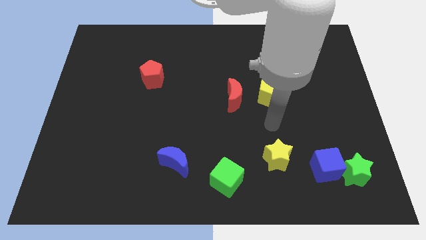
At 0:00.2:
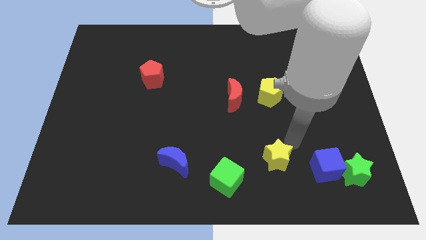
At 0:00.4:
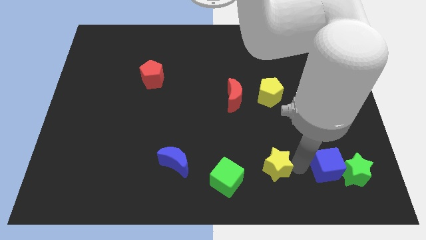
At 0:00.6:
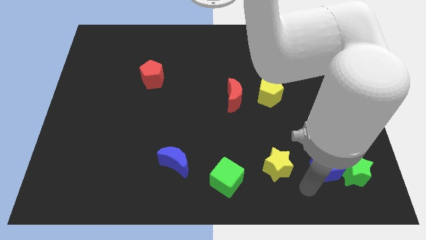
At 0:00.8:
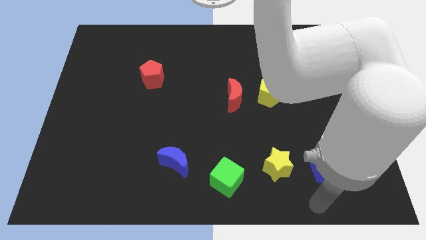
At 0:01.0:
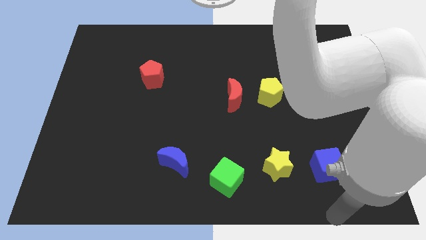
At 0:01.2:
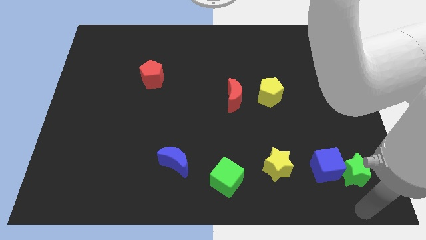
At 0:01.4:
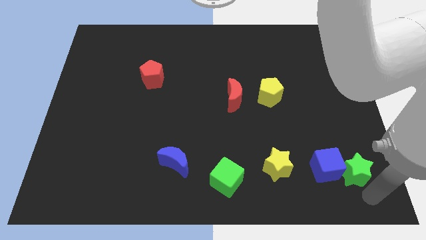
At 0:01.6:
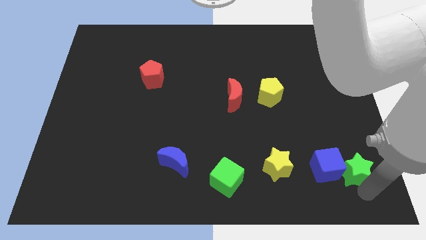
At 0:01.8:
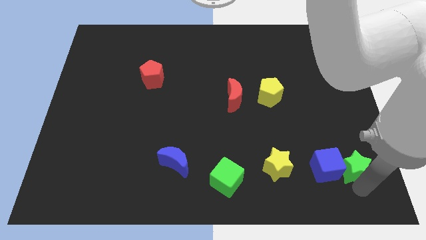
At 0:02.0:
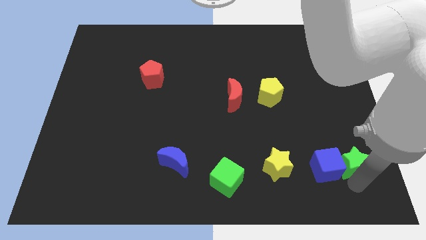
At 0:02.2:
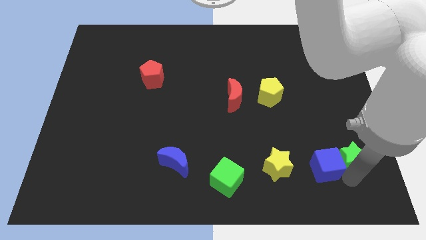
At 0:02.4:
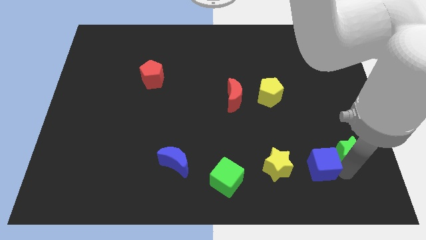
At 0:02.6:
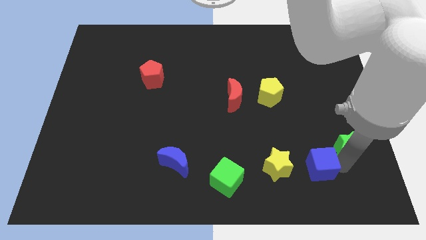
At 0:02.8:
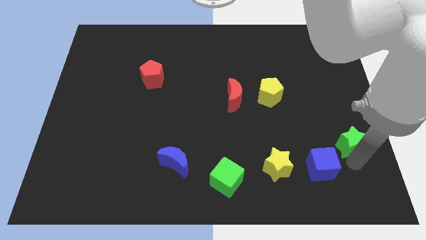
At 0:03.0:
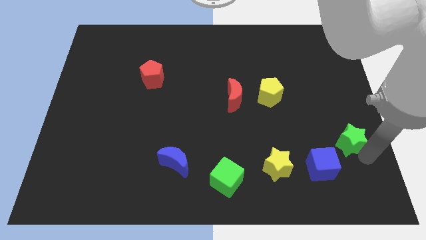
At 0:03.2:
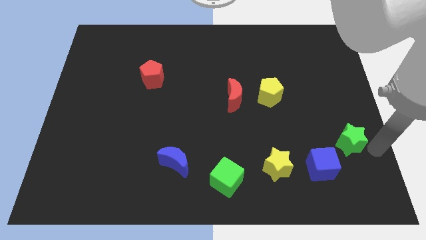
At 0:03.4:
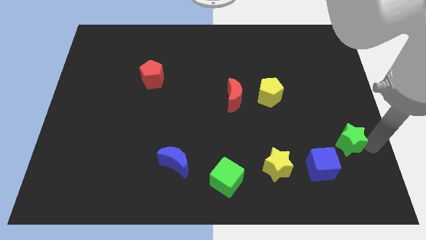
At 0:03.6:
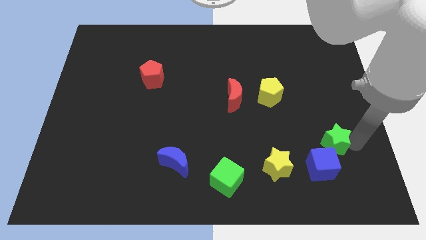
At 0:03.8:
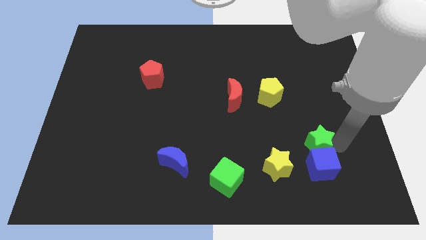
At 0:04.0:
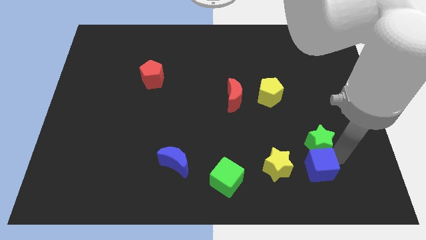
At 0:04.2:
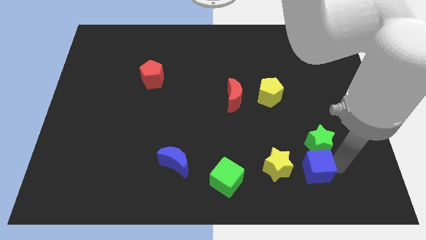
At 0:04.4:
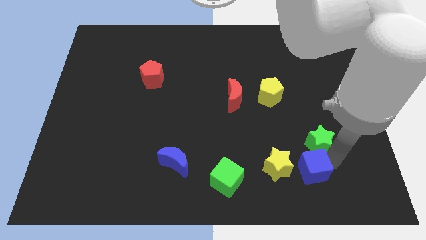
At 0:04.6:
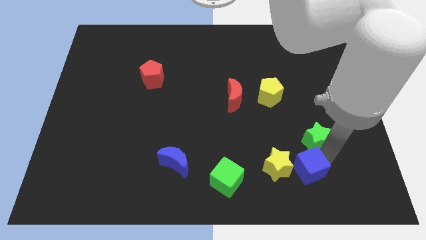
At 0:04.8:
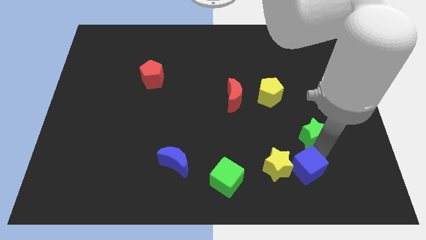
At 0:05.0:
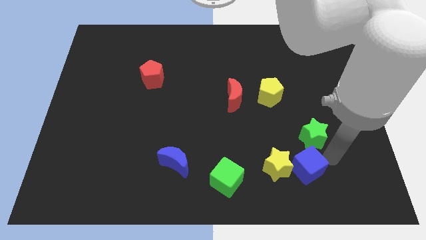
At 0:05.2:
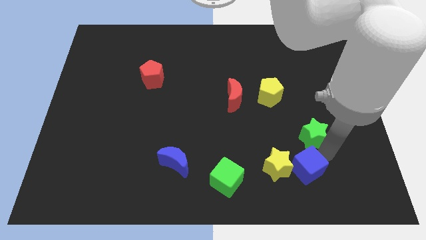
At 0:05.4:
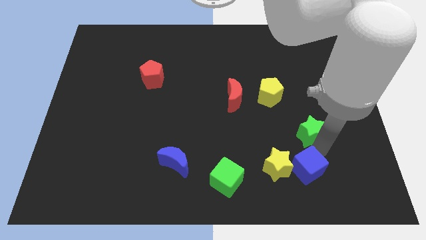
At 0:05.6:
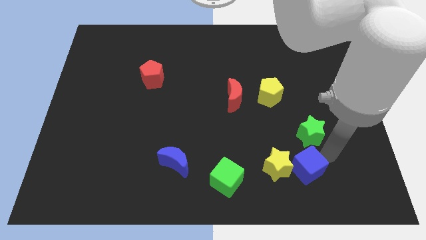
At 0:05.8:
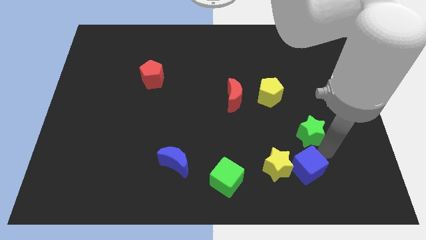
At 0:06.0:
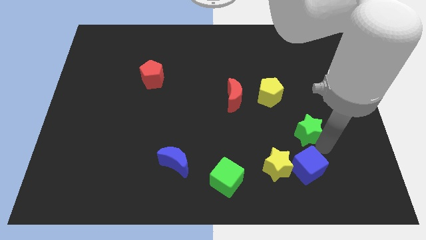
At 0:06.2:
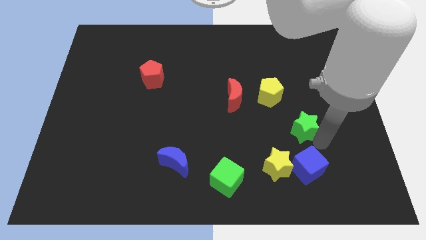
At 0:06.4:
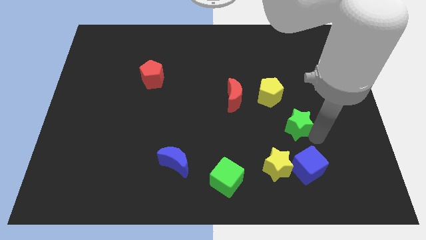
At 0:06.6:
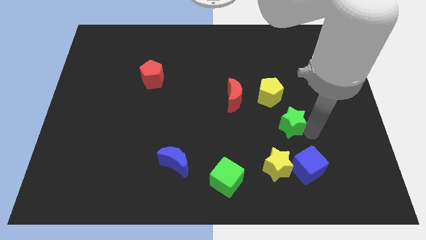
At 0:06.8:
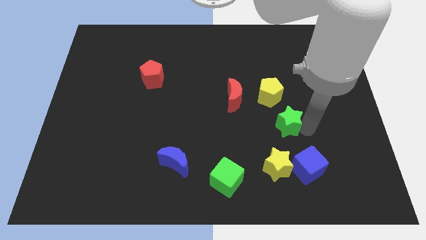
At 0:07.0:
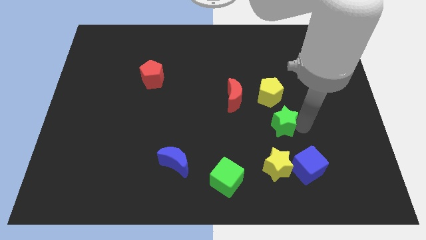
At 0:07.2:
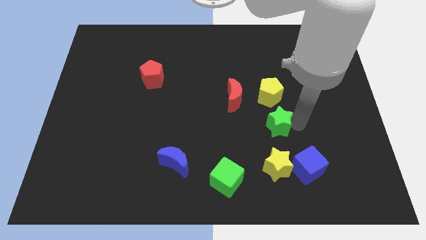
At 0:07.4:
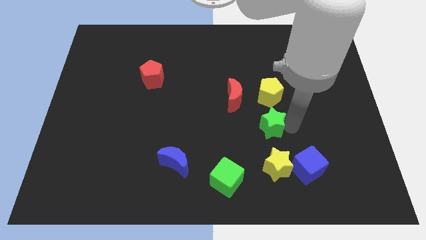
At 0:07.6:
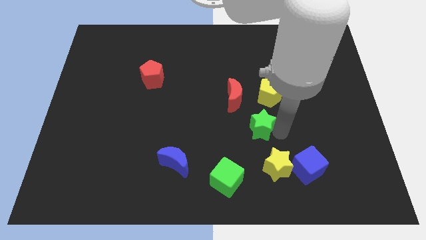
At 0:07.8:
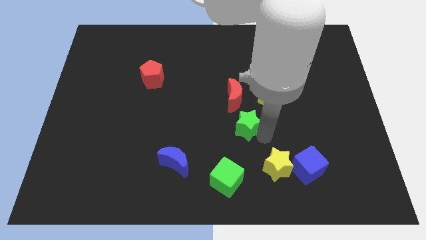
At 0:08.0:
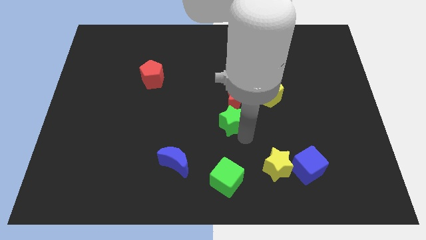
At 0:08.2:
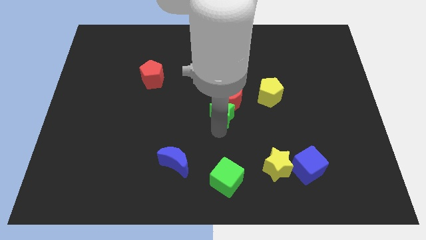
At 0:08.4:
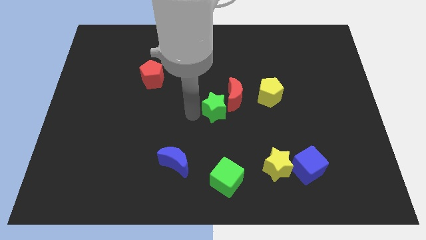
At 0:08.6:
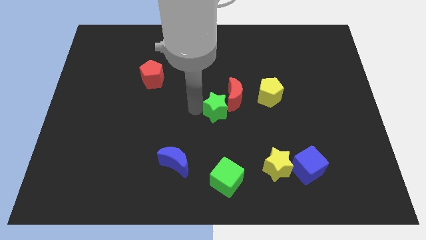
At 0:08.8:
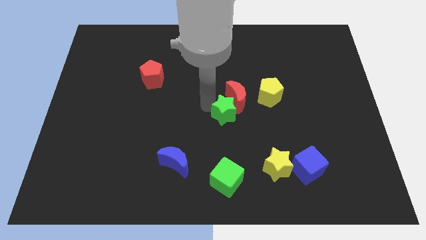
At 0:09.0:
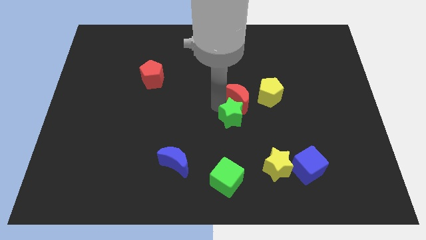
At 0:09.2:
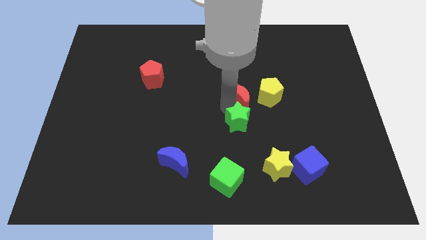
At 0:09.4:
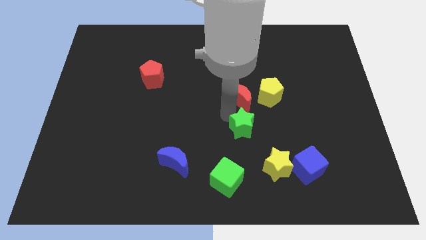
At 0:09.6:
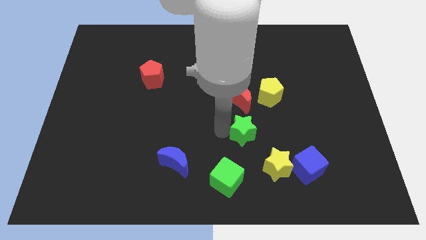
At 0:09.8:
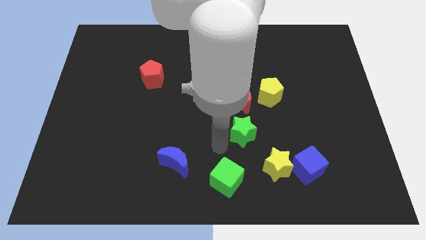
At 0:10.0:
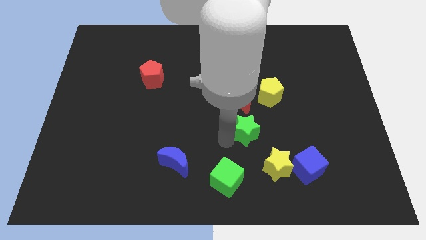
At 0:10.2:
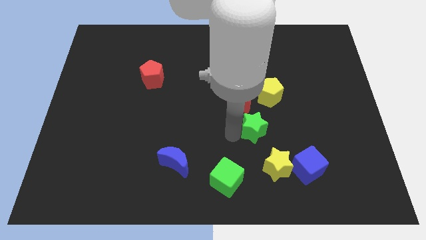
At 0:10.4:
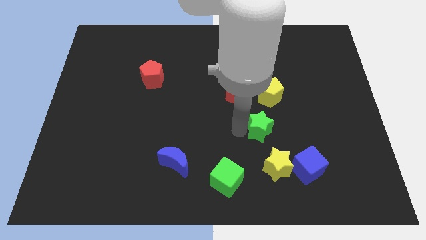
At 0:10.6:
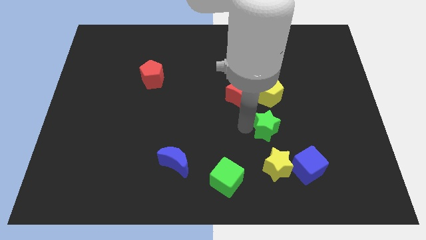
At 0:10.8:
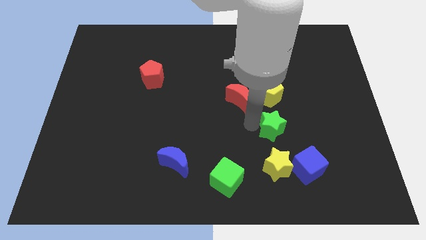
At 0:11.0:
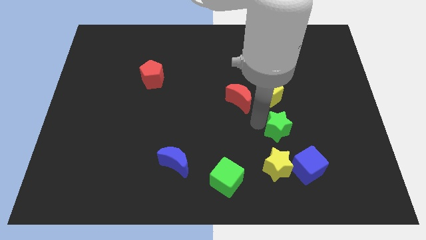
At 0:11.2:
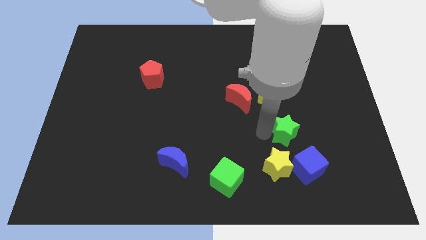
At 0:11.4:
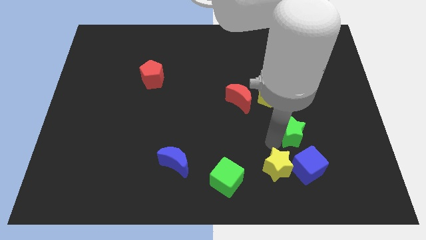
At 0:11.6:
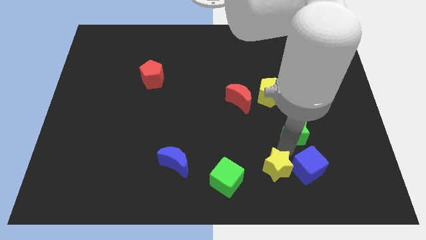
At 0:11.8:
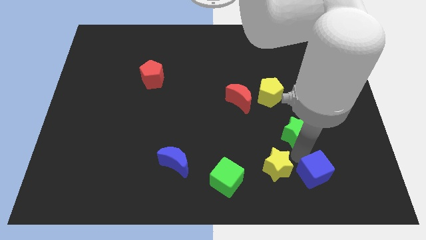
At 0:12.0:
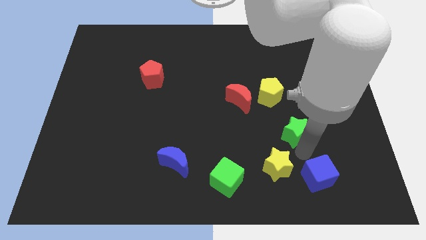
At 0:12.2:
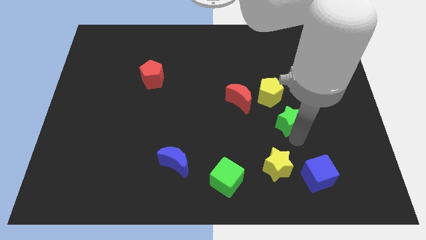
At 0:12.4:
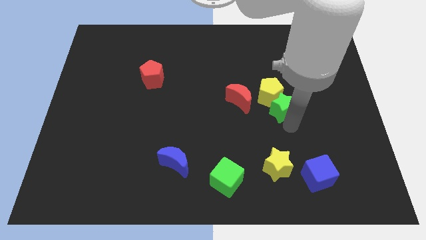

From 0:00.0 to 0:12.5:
slide the green star close to the yellow pentagon
